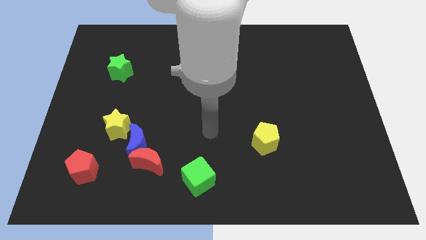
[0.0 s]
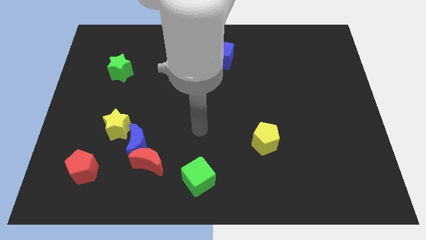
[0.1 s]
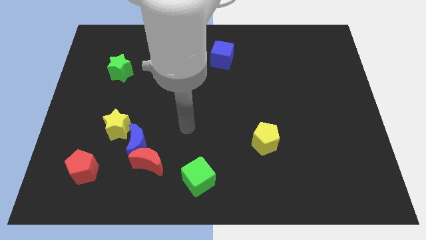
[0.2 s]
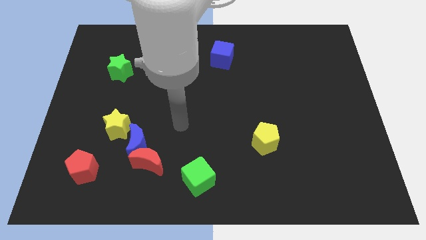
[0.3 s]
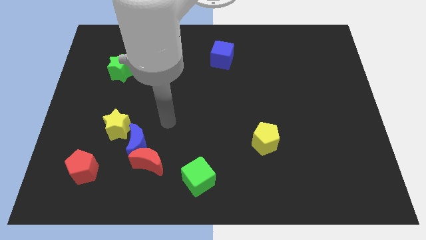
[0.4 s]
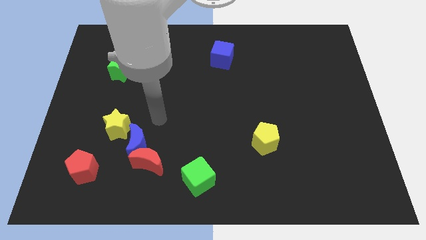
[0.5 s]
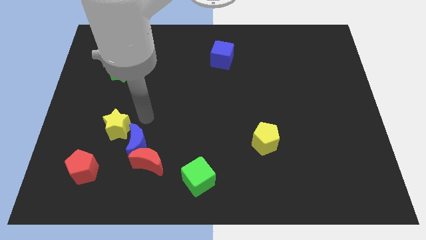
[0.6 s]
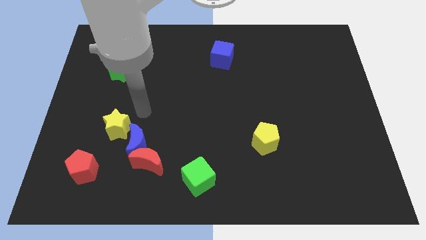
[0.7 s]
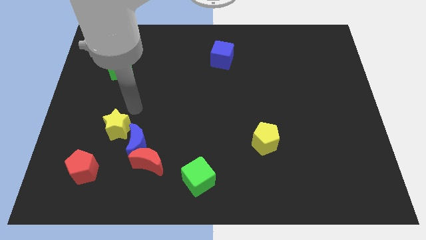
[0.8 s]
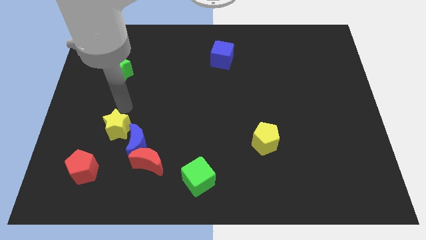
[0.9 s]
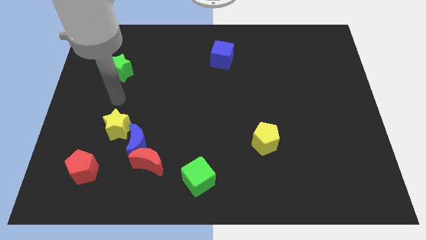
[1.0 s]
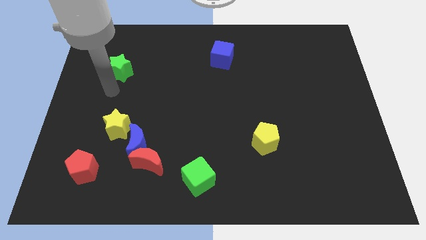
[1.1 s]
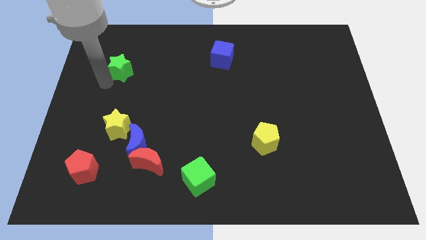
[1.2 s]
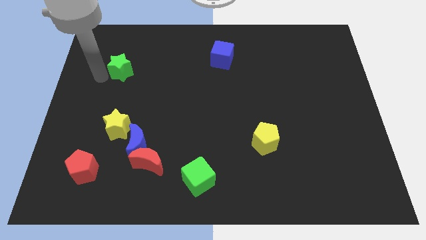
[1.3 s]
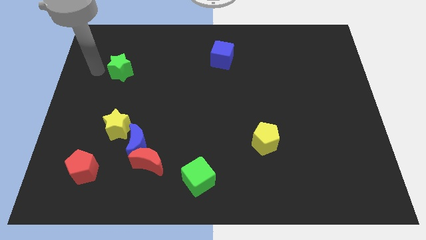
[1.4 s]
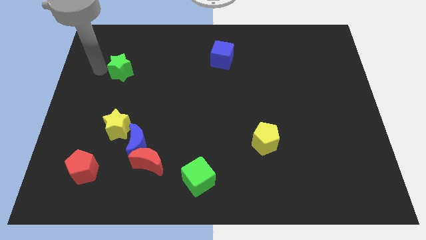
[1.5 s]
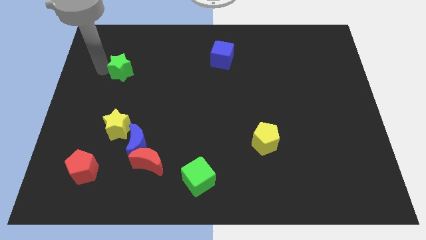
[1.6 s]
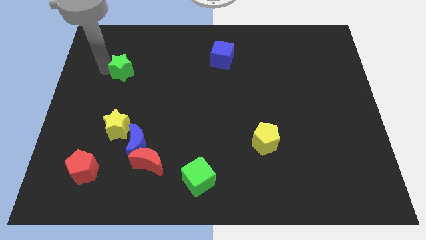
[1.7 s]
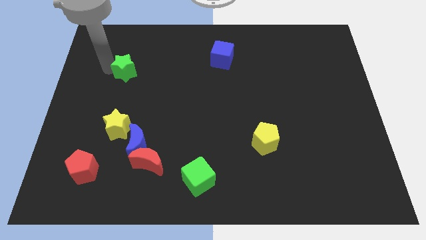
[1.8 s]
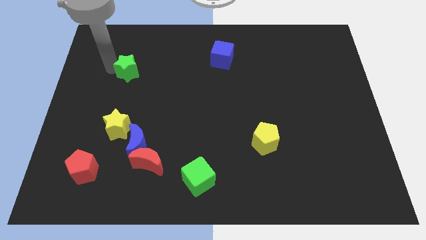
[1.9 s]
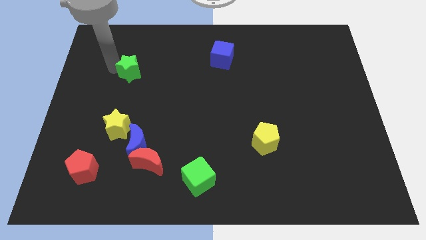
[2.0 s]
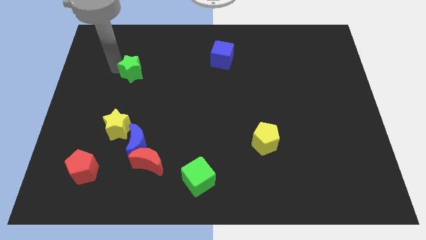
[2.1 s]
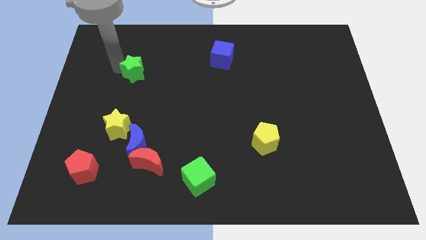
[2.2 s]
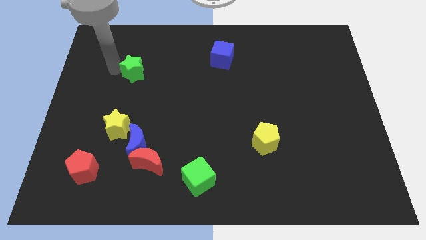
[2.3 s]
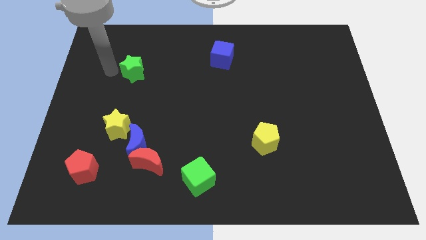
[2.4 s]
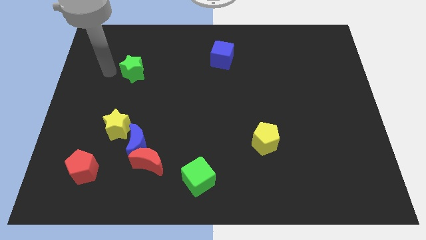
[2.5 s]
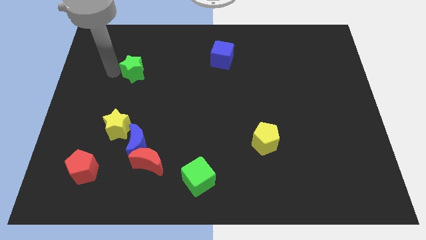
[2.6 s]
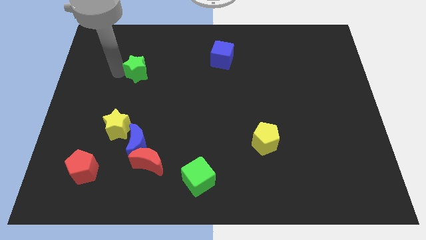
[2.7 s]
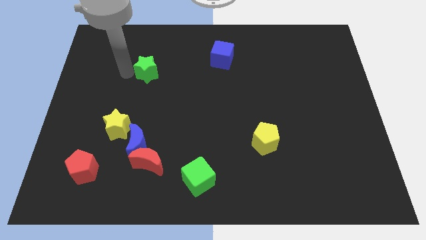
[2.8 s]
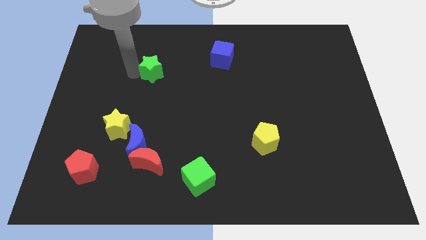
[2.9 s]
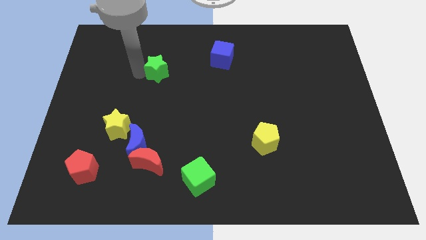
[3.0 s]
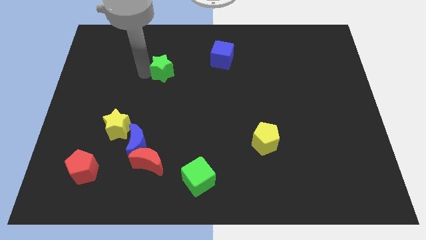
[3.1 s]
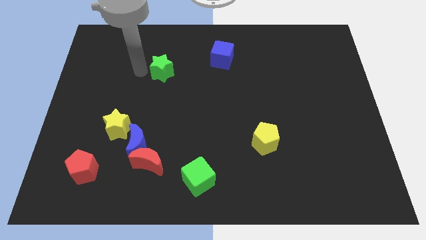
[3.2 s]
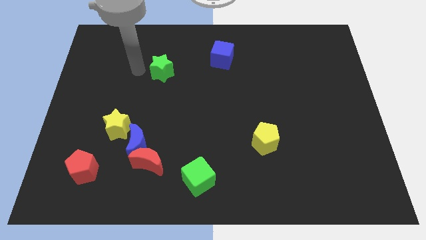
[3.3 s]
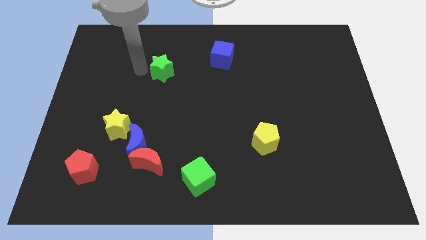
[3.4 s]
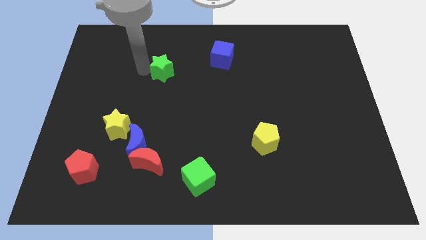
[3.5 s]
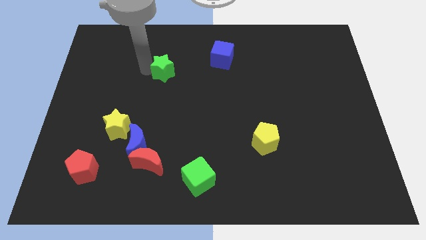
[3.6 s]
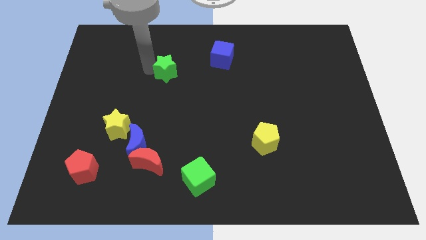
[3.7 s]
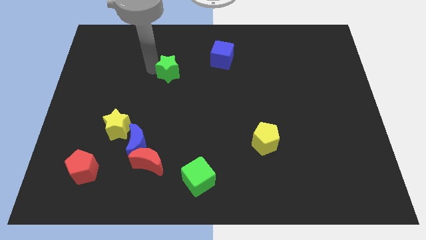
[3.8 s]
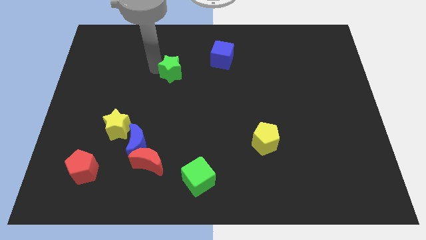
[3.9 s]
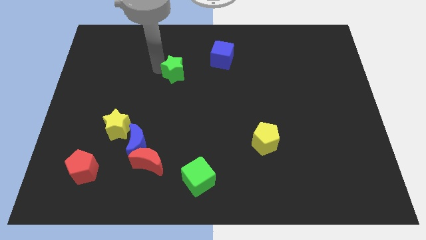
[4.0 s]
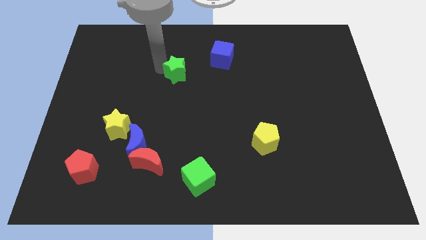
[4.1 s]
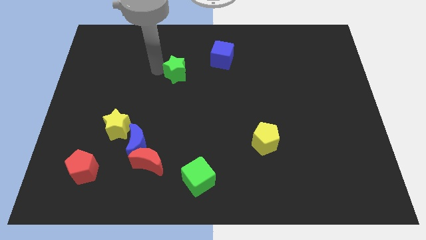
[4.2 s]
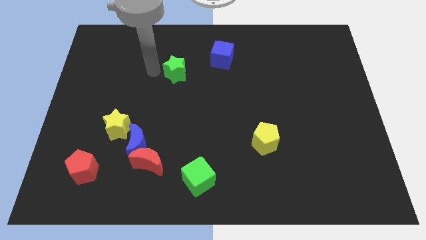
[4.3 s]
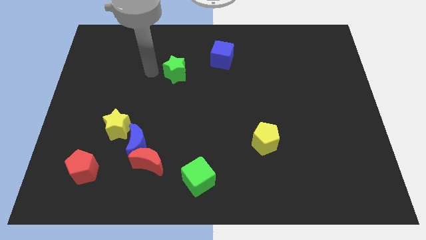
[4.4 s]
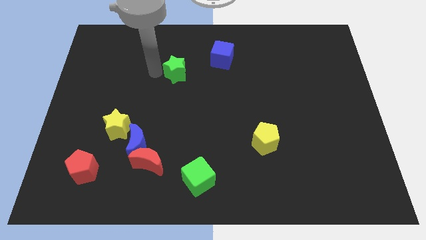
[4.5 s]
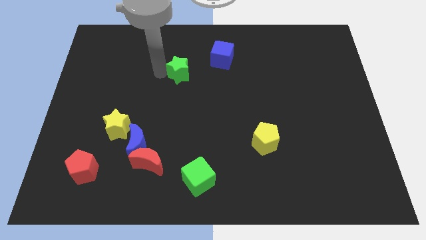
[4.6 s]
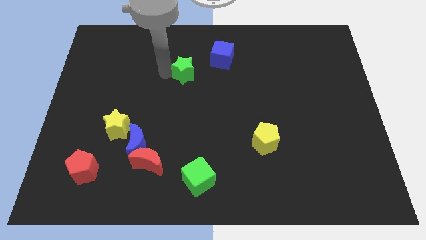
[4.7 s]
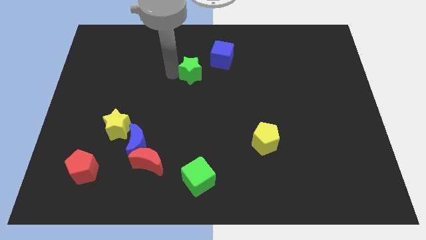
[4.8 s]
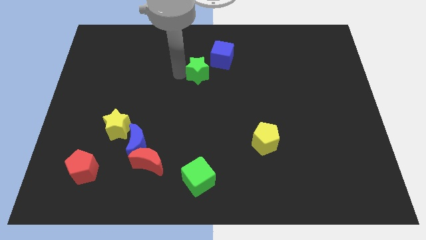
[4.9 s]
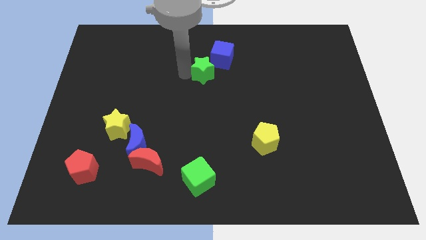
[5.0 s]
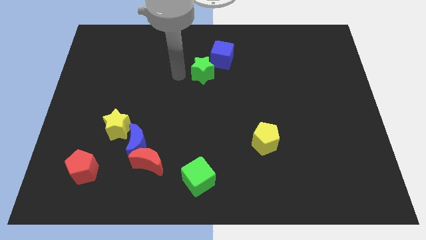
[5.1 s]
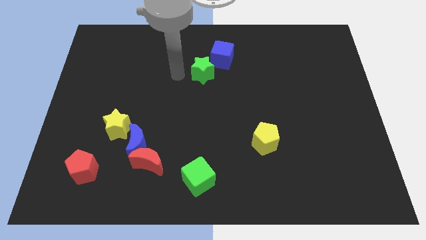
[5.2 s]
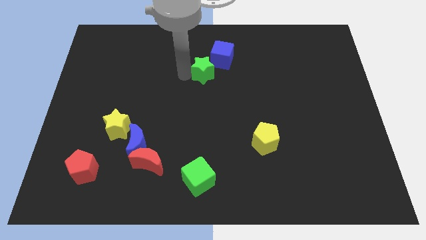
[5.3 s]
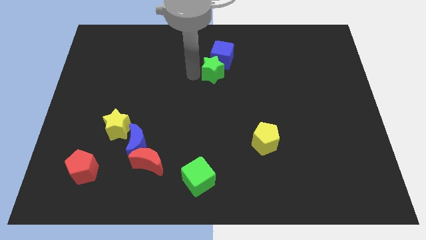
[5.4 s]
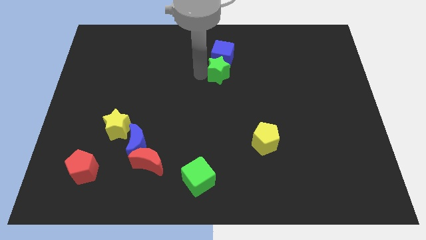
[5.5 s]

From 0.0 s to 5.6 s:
move the green star to the bottom right side of the blue cube

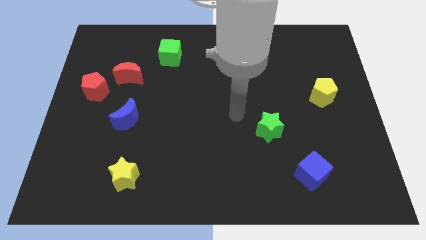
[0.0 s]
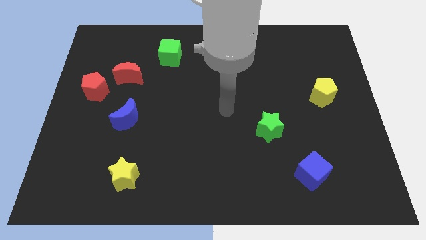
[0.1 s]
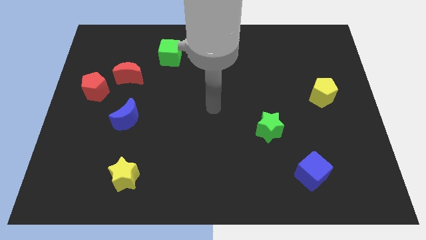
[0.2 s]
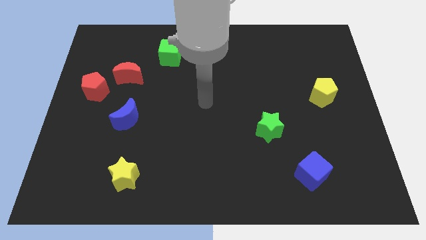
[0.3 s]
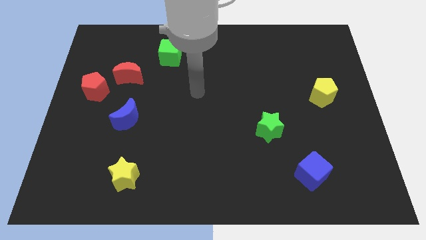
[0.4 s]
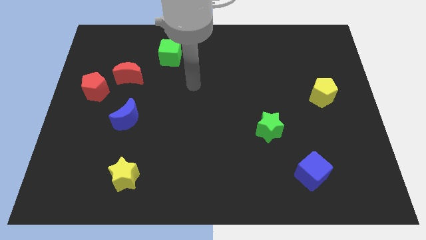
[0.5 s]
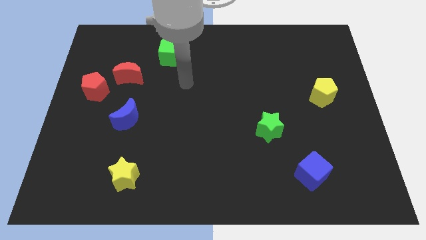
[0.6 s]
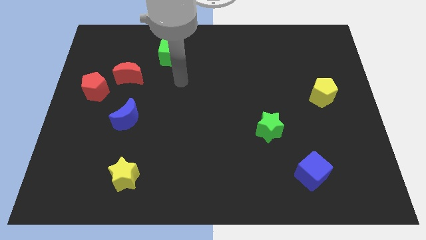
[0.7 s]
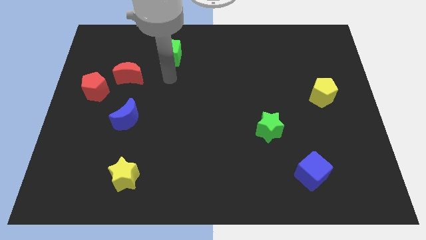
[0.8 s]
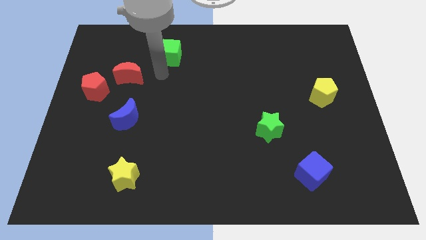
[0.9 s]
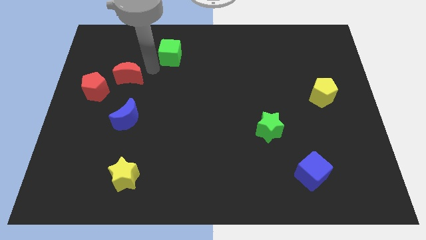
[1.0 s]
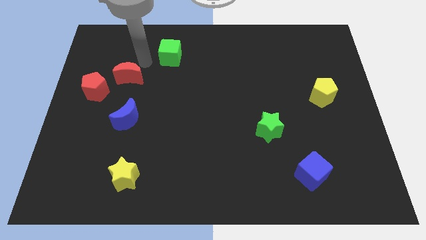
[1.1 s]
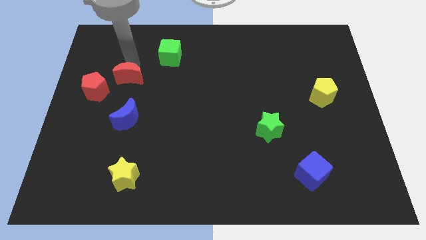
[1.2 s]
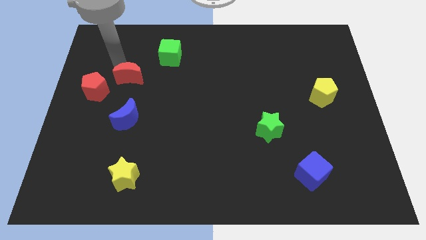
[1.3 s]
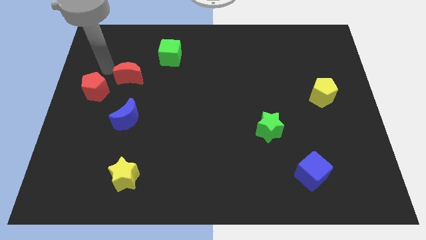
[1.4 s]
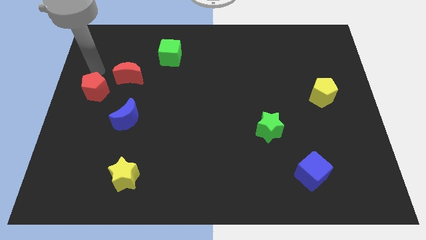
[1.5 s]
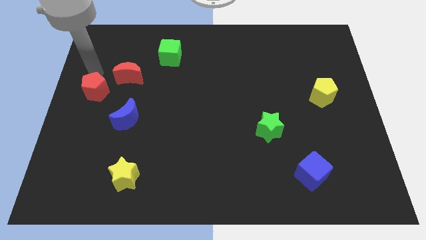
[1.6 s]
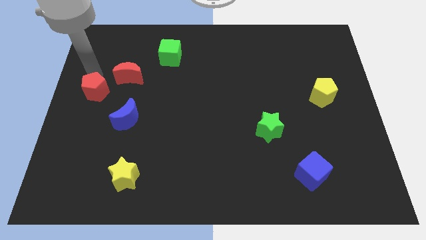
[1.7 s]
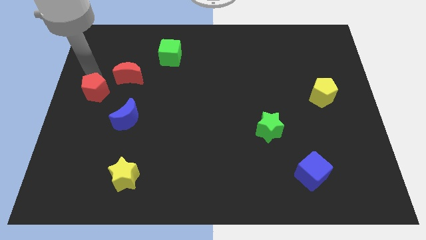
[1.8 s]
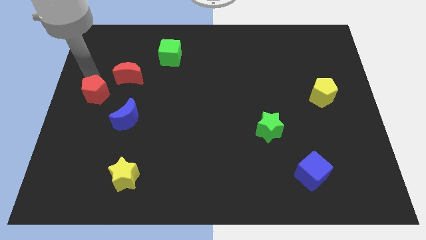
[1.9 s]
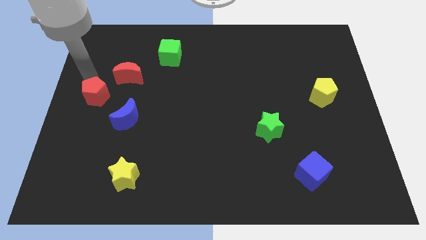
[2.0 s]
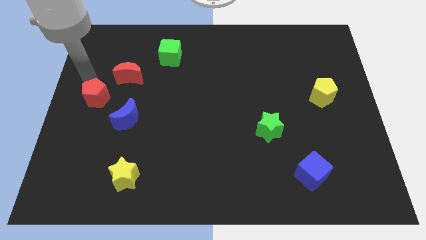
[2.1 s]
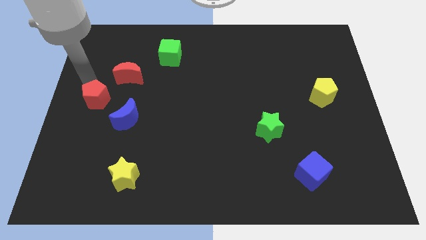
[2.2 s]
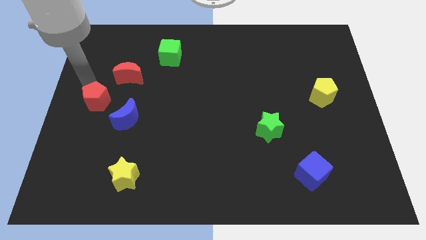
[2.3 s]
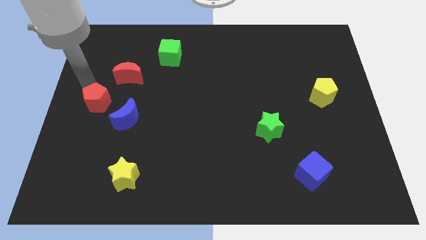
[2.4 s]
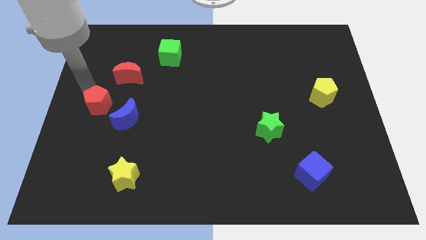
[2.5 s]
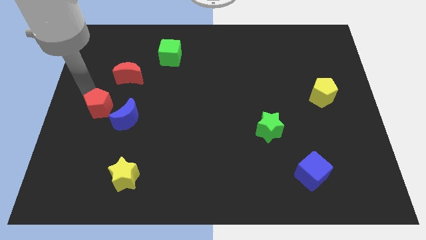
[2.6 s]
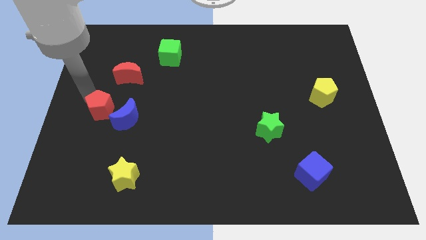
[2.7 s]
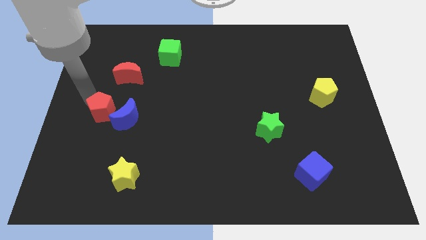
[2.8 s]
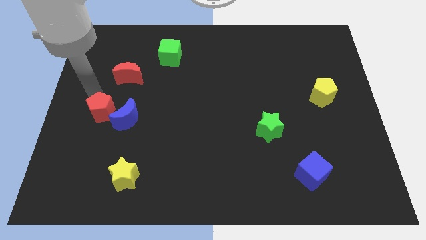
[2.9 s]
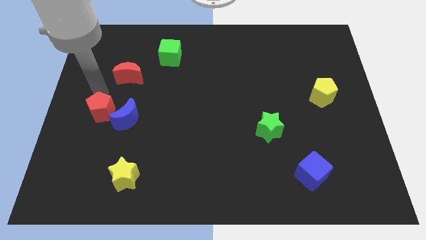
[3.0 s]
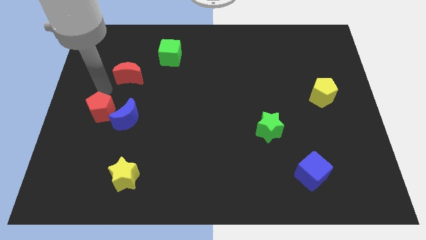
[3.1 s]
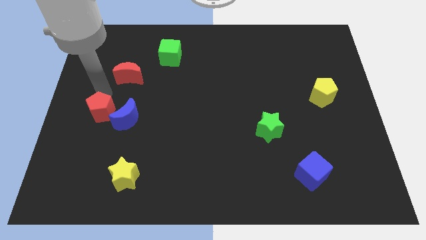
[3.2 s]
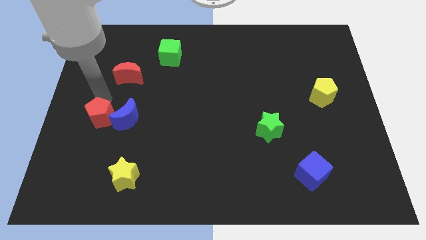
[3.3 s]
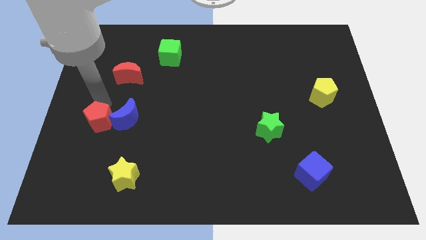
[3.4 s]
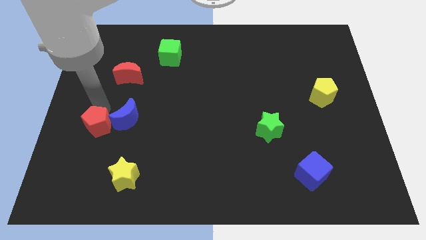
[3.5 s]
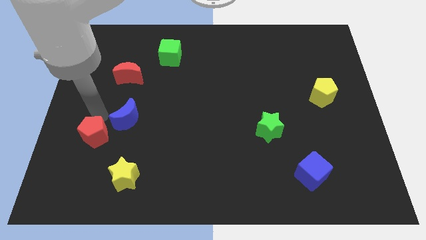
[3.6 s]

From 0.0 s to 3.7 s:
move the red pentagon diagonally up and to the left of the yellow star
